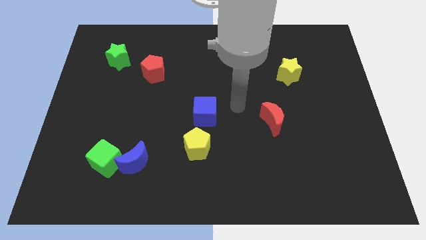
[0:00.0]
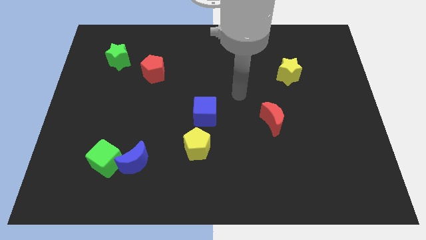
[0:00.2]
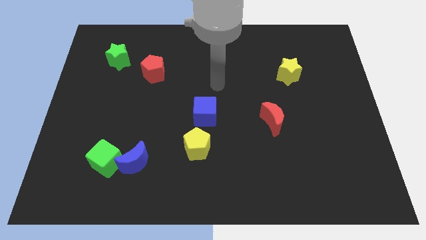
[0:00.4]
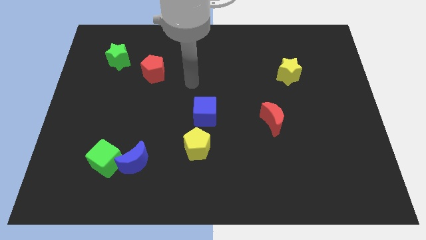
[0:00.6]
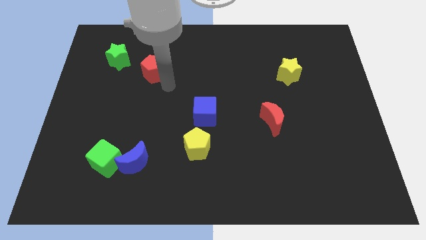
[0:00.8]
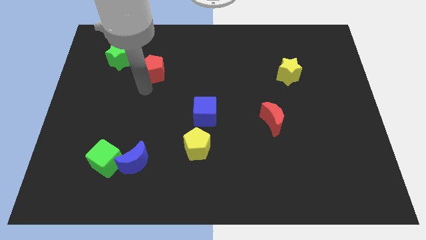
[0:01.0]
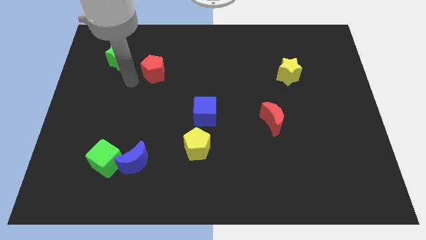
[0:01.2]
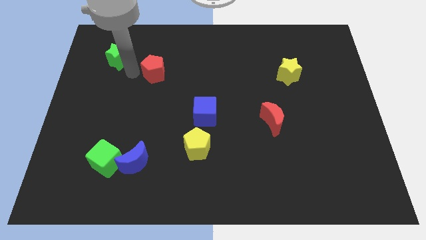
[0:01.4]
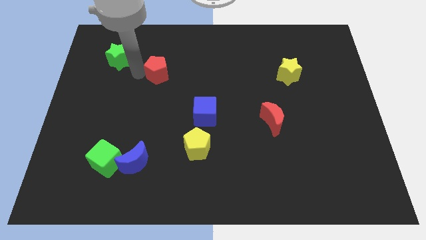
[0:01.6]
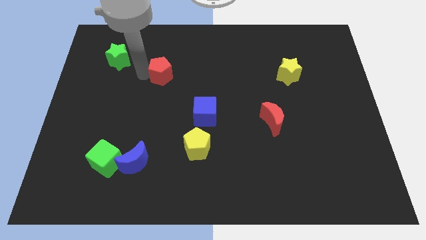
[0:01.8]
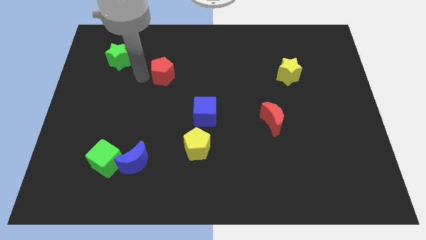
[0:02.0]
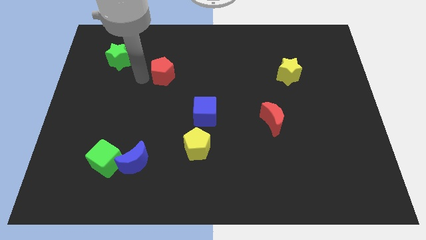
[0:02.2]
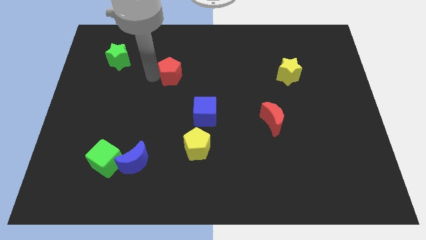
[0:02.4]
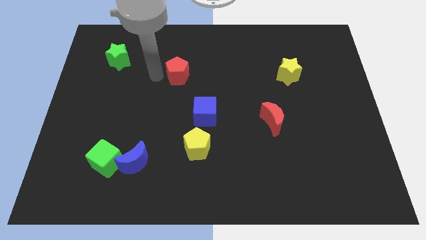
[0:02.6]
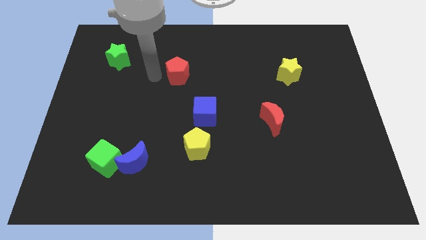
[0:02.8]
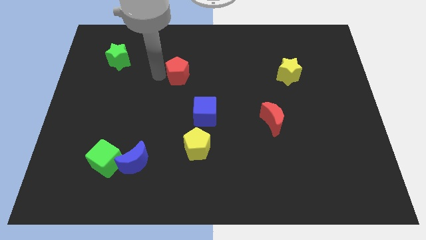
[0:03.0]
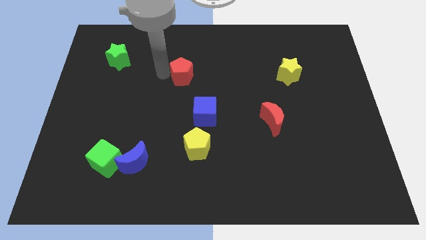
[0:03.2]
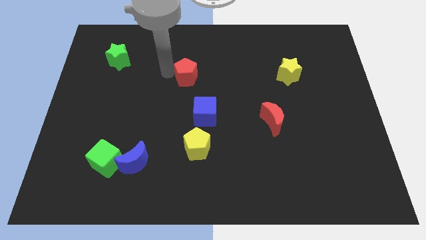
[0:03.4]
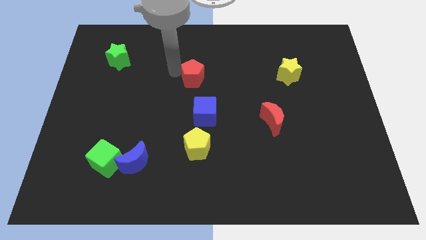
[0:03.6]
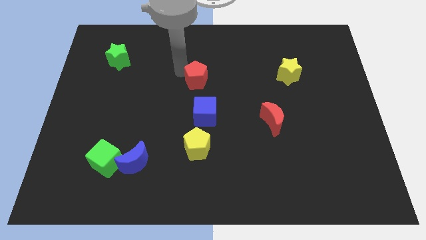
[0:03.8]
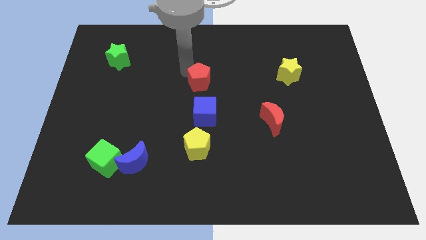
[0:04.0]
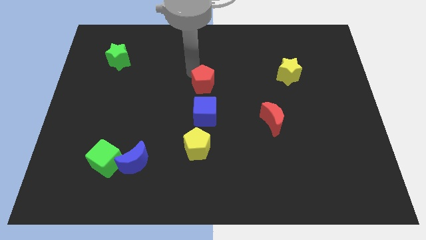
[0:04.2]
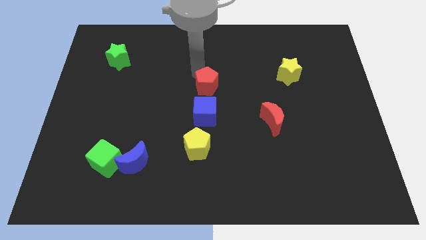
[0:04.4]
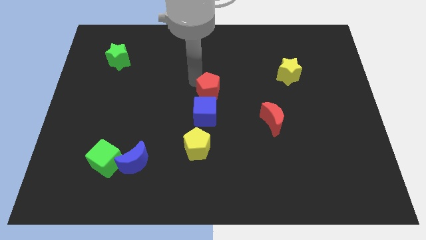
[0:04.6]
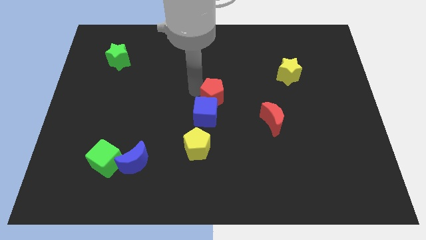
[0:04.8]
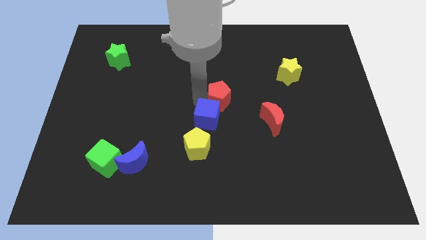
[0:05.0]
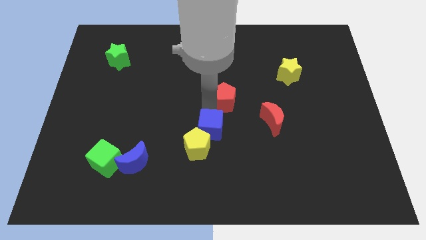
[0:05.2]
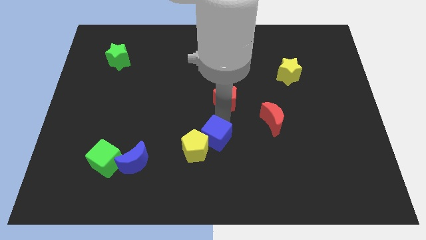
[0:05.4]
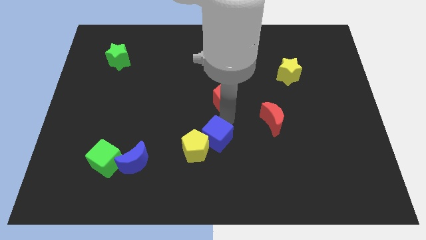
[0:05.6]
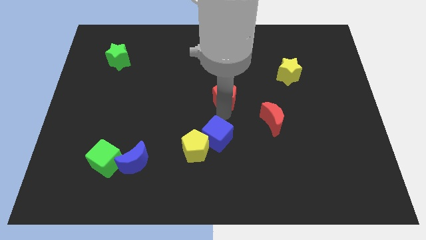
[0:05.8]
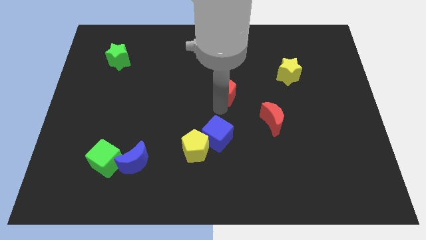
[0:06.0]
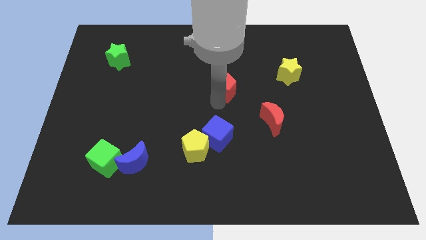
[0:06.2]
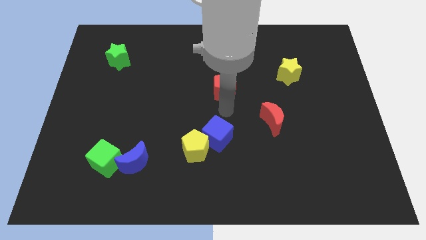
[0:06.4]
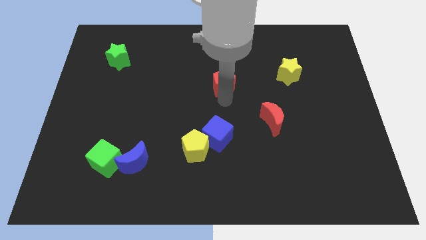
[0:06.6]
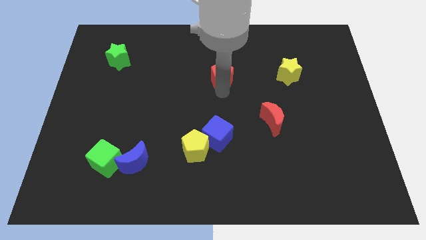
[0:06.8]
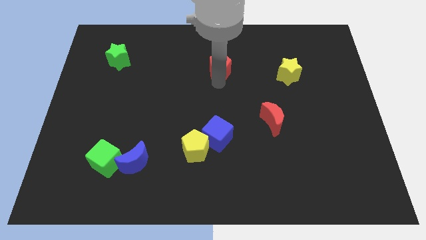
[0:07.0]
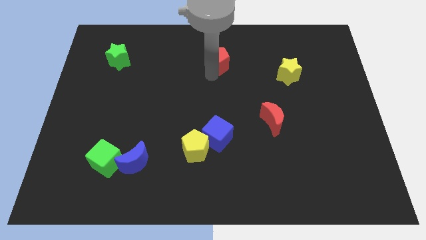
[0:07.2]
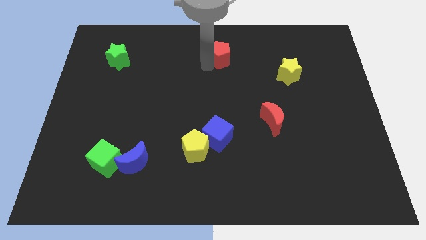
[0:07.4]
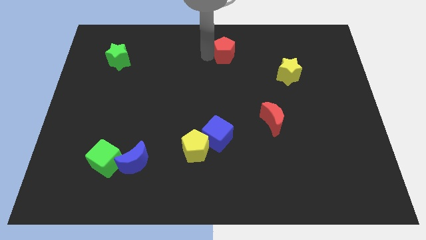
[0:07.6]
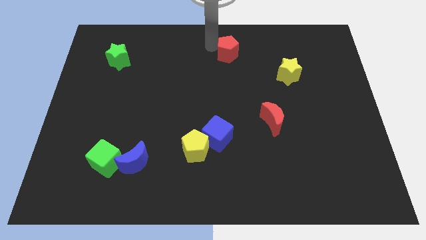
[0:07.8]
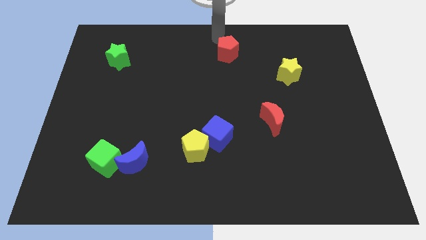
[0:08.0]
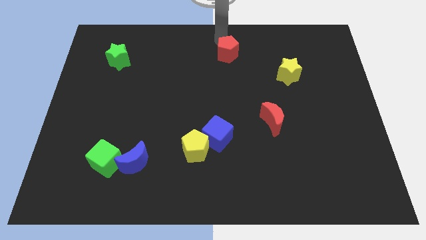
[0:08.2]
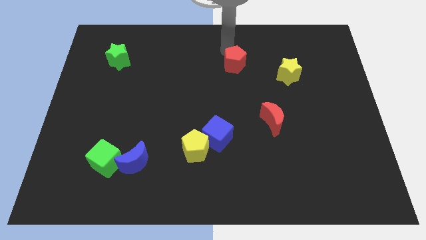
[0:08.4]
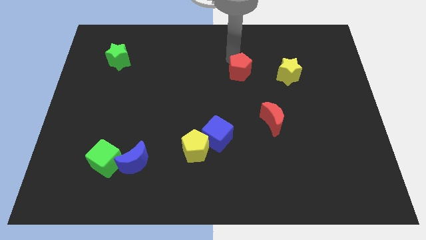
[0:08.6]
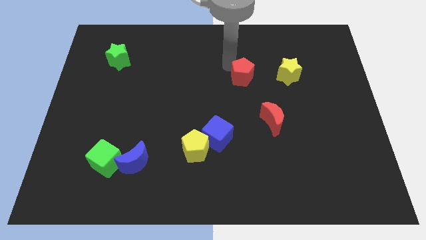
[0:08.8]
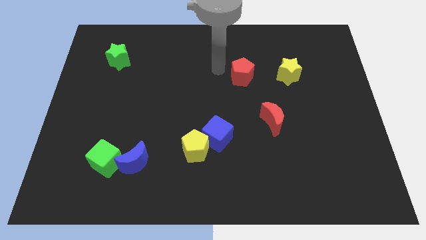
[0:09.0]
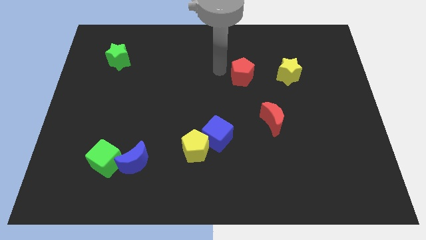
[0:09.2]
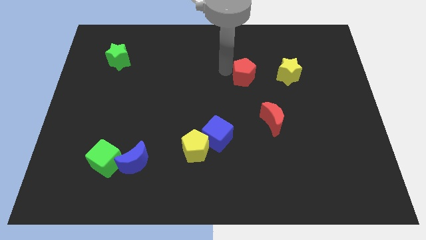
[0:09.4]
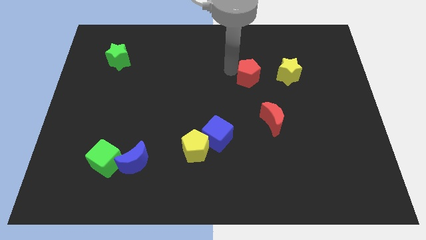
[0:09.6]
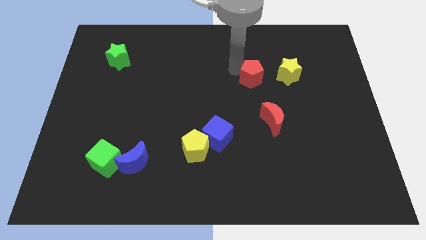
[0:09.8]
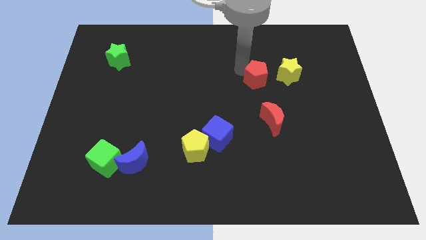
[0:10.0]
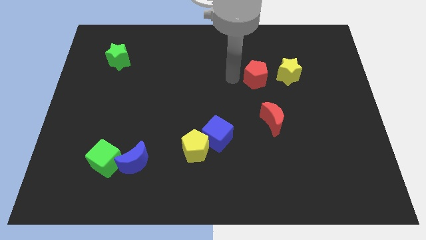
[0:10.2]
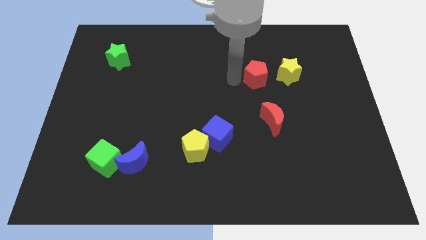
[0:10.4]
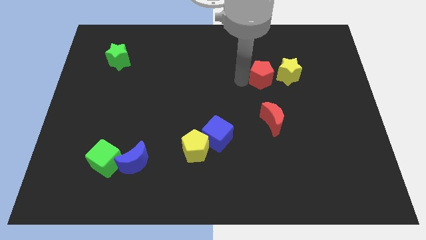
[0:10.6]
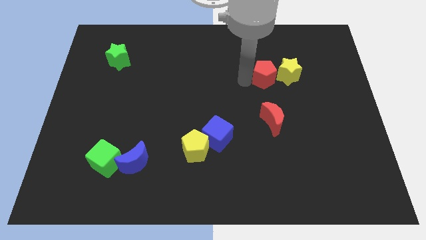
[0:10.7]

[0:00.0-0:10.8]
slide the red pentagon towards the yellow star

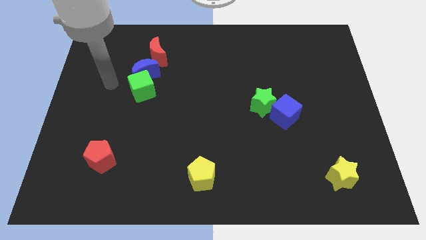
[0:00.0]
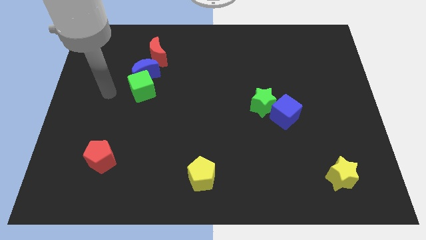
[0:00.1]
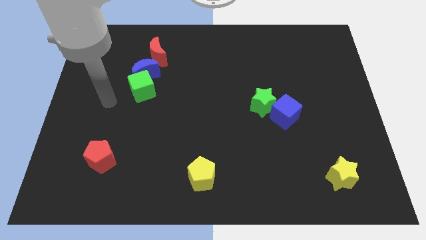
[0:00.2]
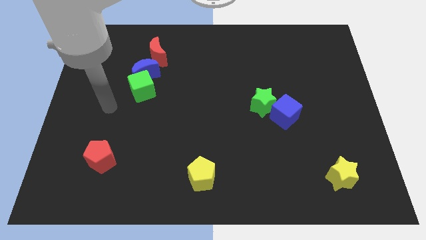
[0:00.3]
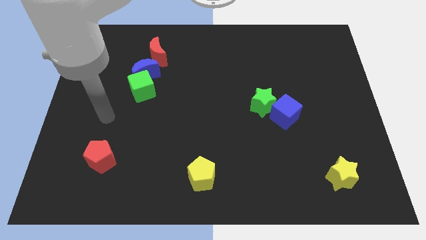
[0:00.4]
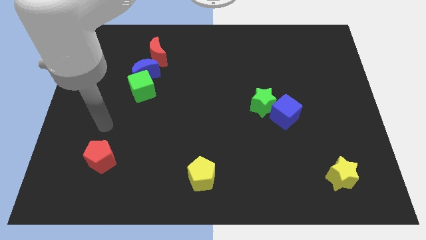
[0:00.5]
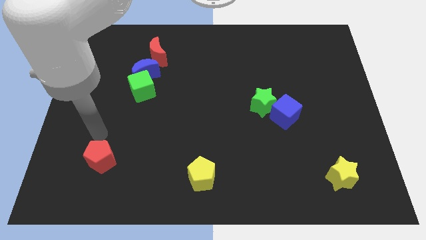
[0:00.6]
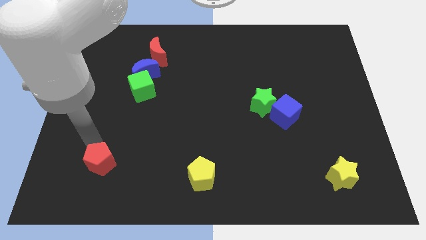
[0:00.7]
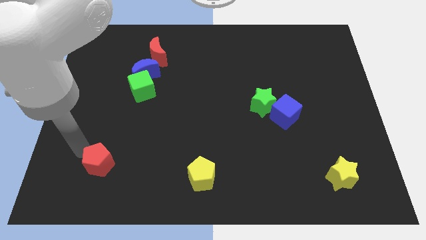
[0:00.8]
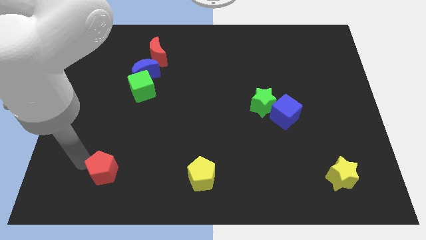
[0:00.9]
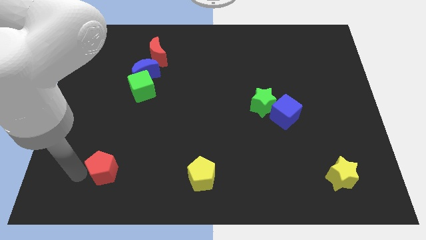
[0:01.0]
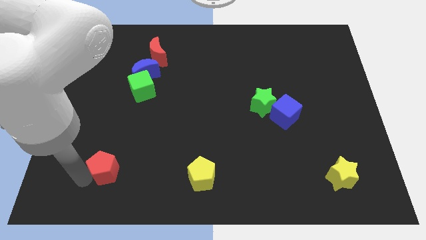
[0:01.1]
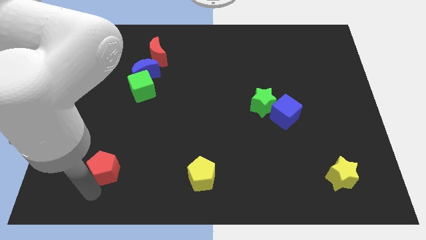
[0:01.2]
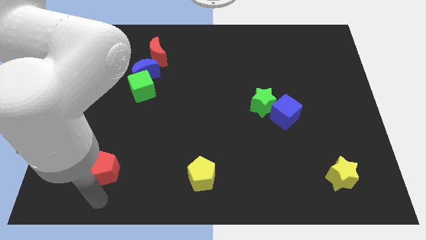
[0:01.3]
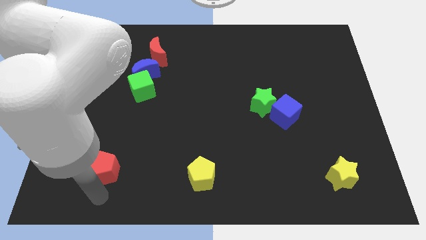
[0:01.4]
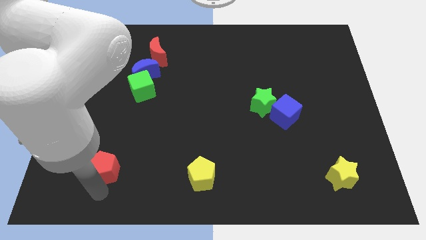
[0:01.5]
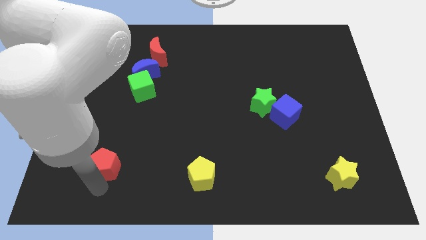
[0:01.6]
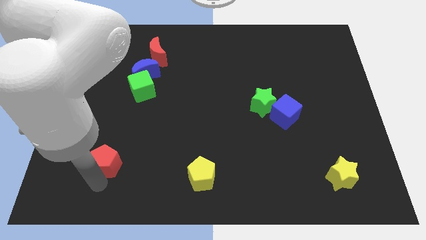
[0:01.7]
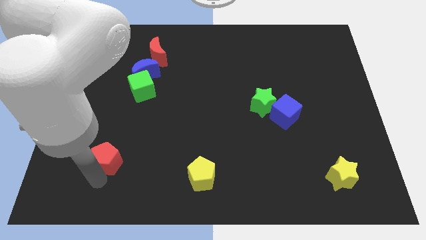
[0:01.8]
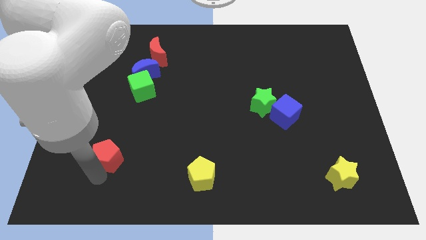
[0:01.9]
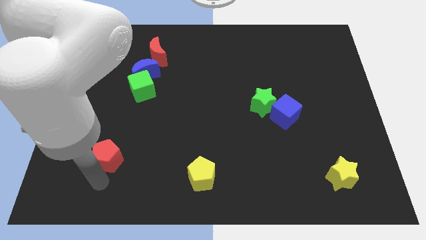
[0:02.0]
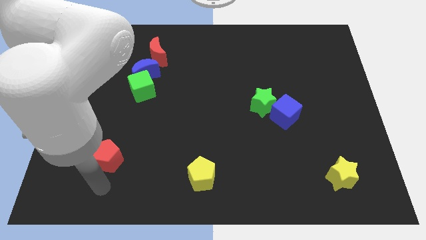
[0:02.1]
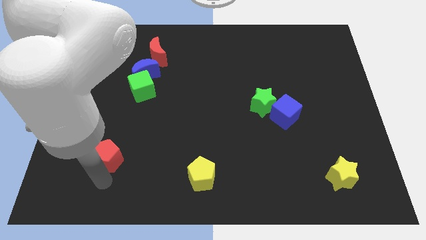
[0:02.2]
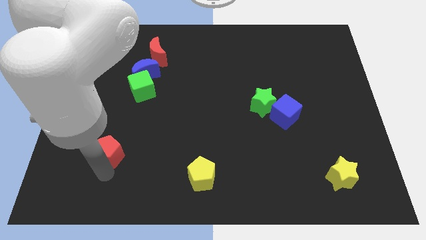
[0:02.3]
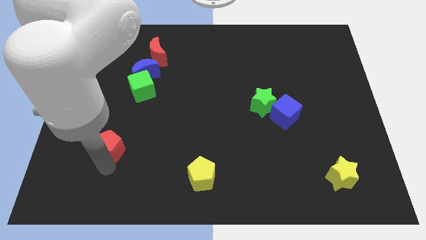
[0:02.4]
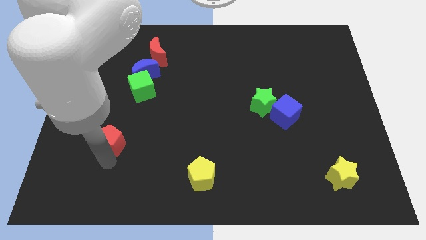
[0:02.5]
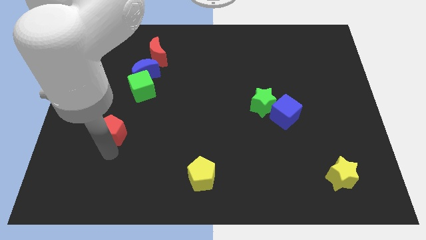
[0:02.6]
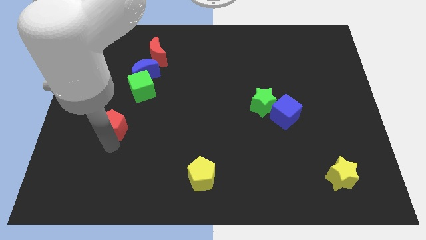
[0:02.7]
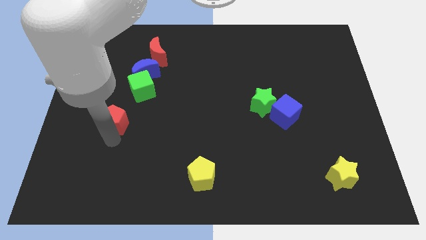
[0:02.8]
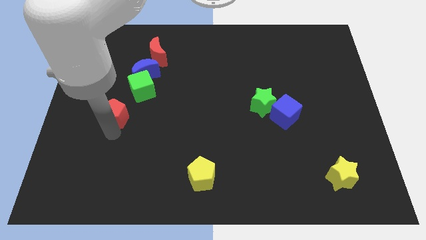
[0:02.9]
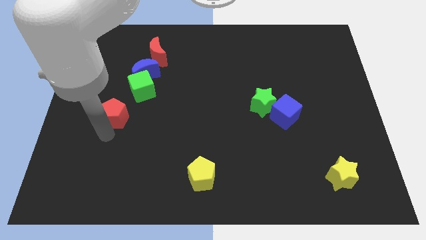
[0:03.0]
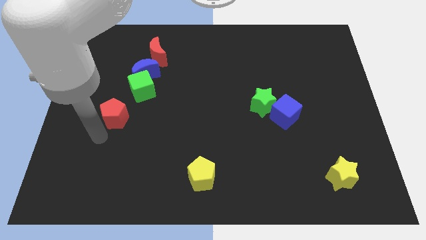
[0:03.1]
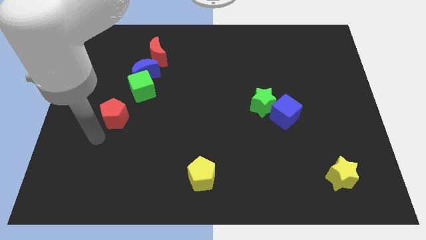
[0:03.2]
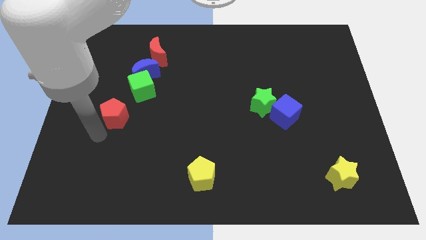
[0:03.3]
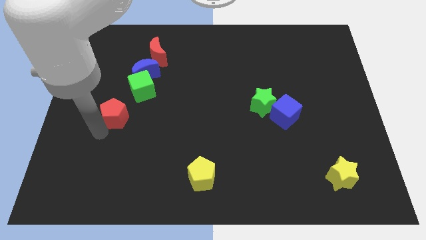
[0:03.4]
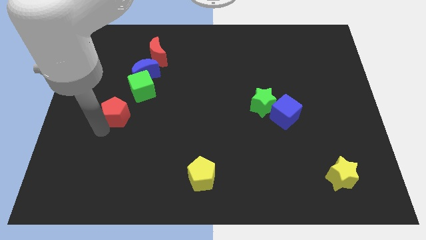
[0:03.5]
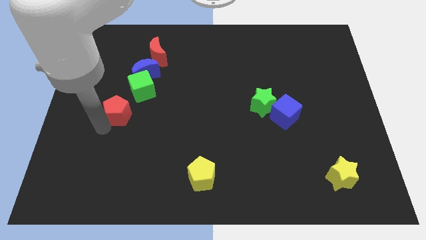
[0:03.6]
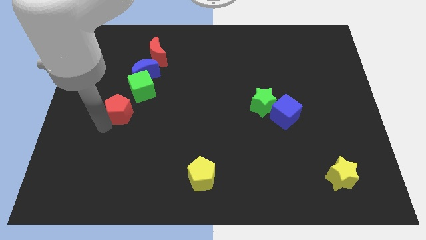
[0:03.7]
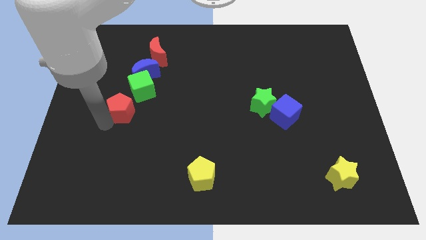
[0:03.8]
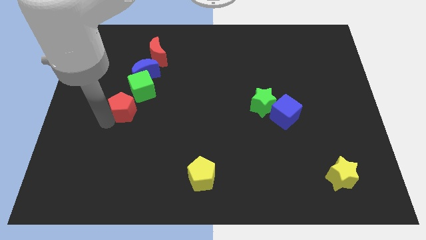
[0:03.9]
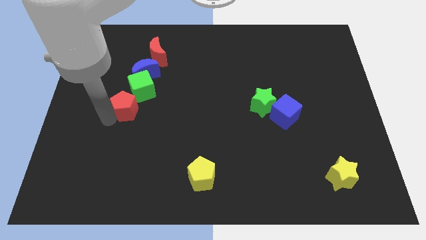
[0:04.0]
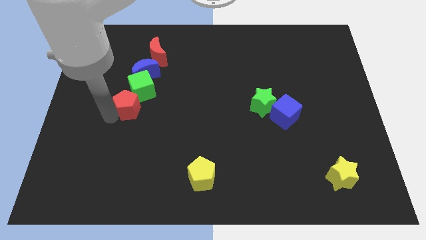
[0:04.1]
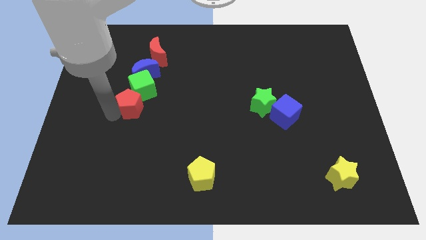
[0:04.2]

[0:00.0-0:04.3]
push the red pentagon towards the green cube
